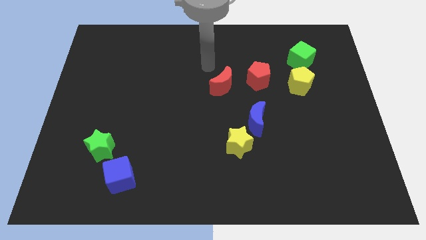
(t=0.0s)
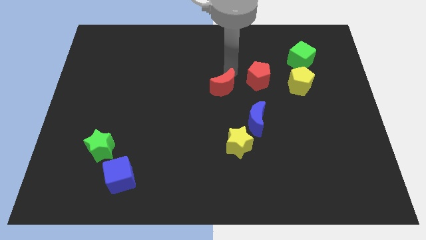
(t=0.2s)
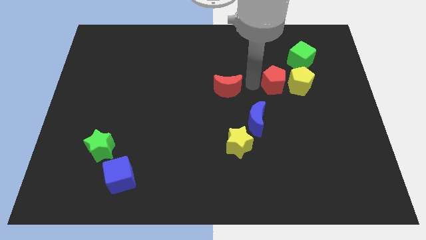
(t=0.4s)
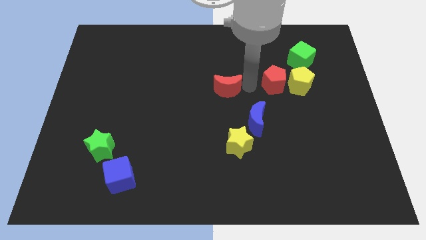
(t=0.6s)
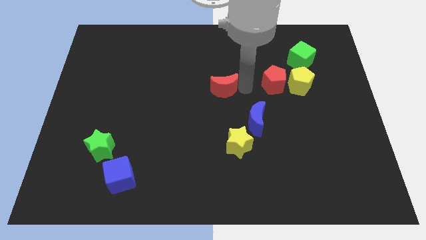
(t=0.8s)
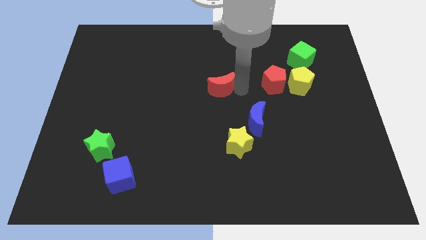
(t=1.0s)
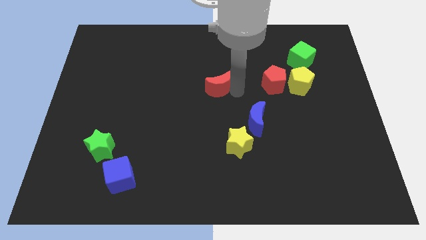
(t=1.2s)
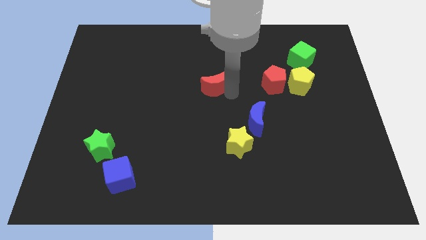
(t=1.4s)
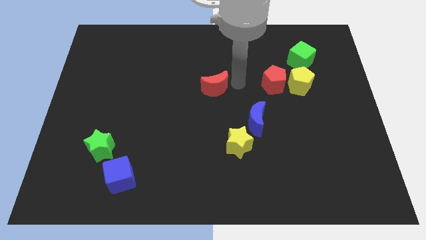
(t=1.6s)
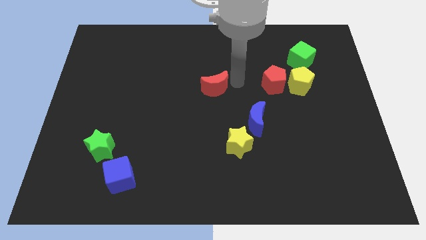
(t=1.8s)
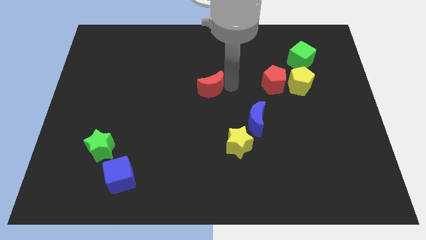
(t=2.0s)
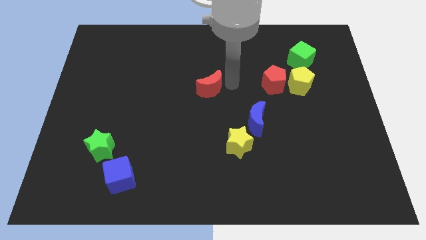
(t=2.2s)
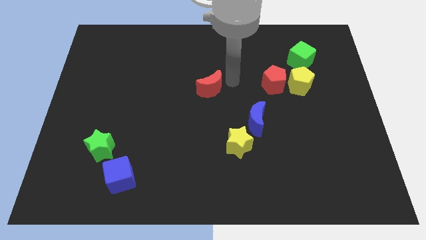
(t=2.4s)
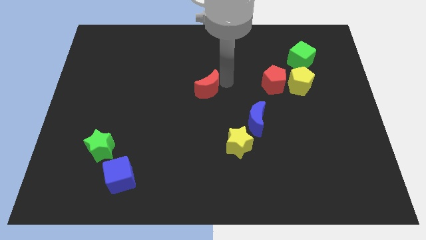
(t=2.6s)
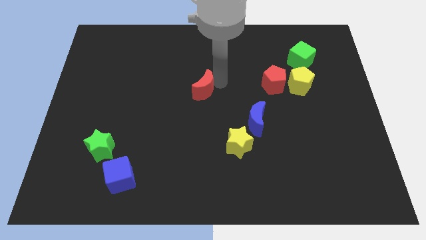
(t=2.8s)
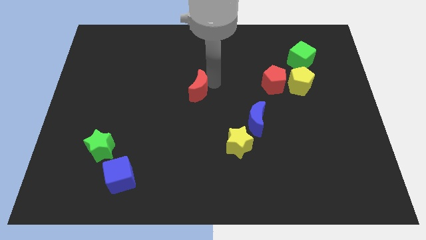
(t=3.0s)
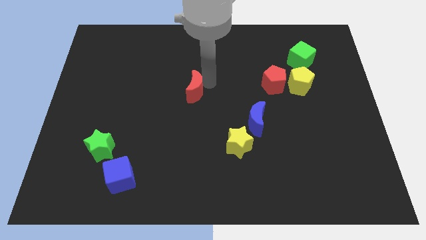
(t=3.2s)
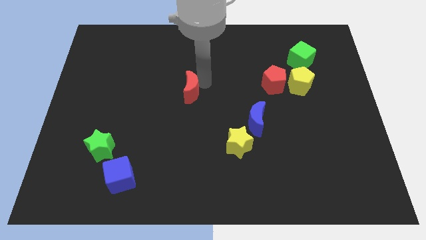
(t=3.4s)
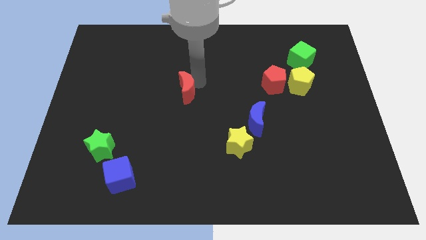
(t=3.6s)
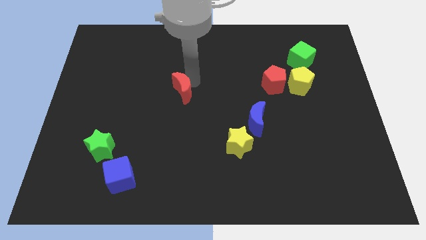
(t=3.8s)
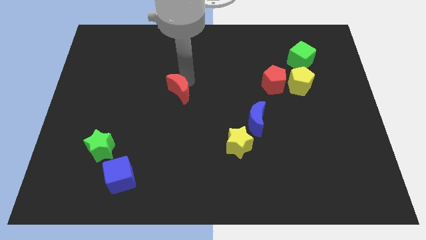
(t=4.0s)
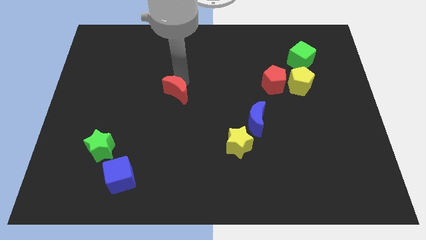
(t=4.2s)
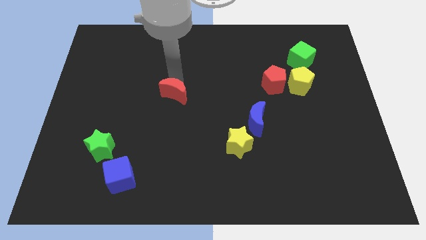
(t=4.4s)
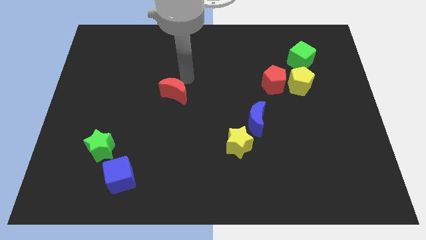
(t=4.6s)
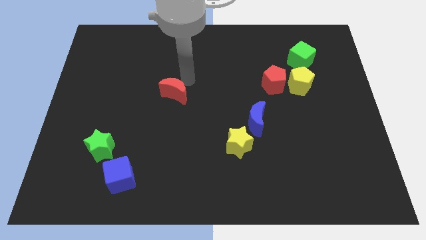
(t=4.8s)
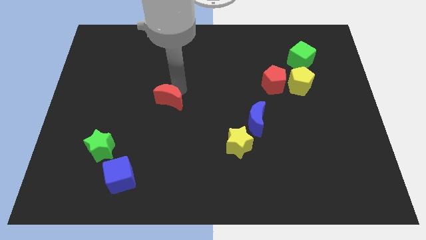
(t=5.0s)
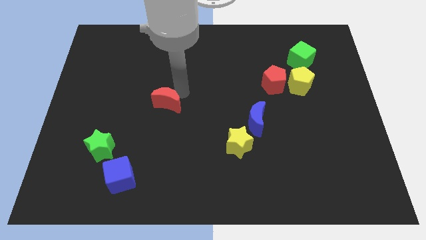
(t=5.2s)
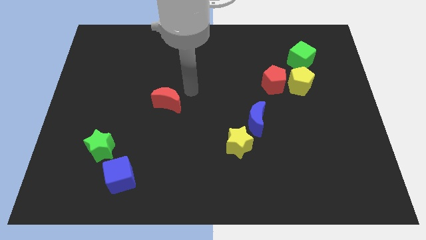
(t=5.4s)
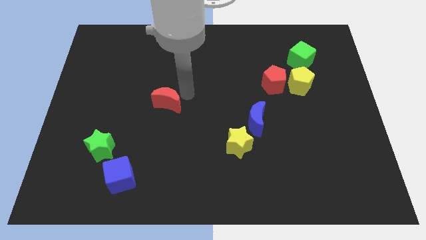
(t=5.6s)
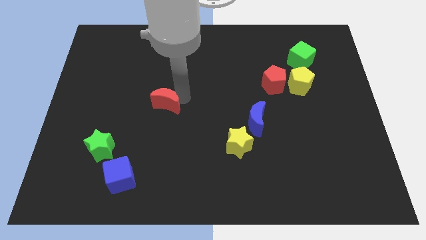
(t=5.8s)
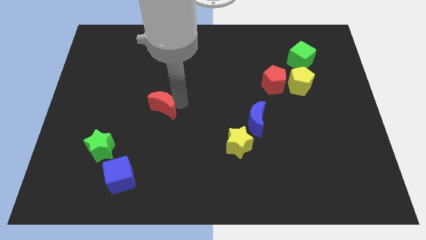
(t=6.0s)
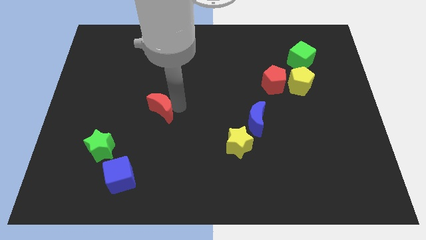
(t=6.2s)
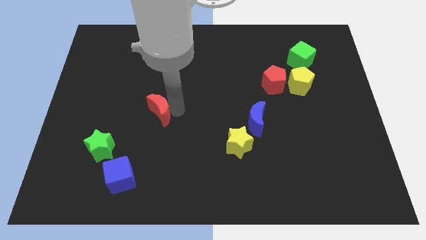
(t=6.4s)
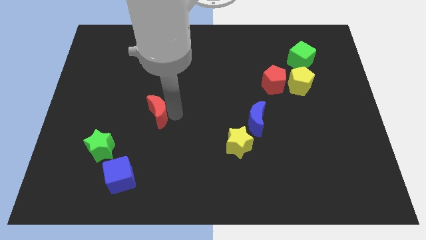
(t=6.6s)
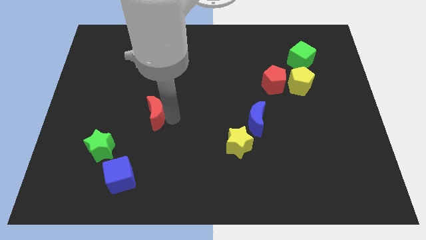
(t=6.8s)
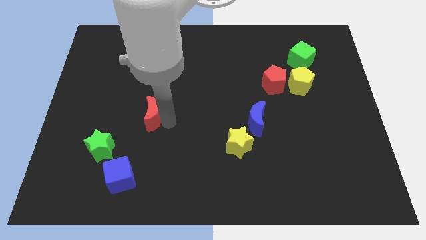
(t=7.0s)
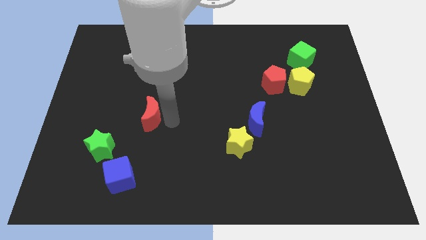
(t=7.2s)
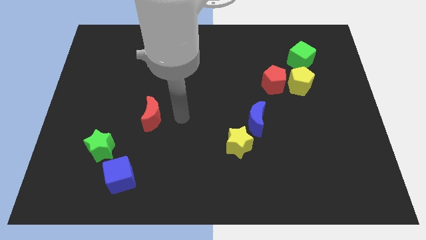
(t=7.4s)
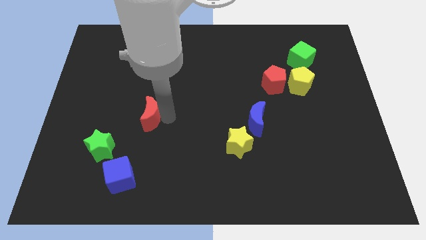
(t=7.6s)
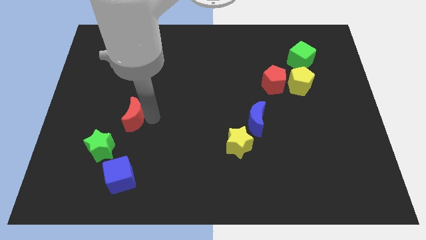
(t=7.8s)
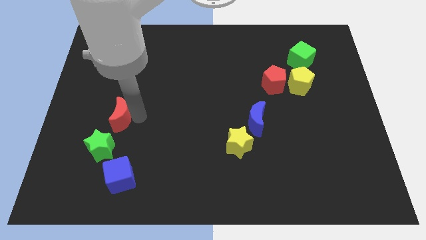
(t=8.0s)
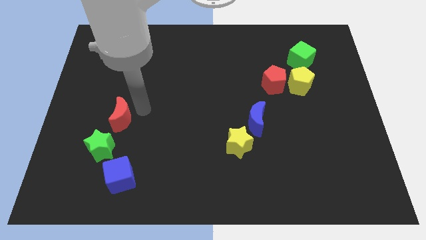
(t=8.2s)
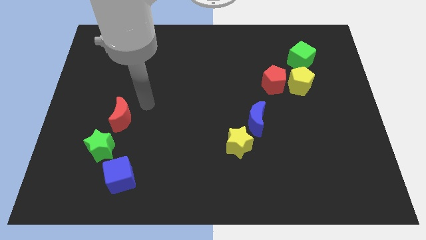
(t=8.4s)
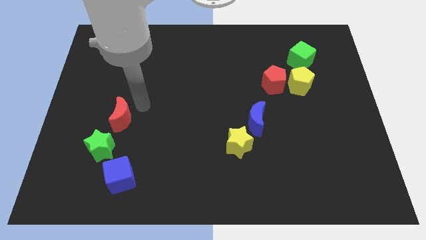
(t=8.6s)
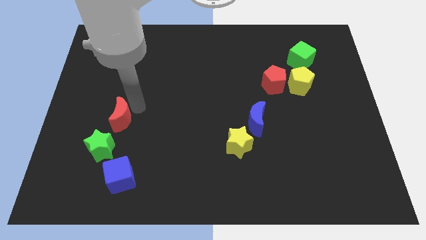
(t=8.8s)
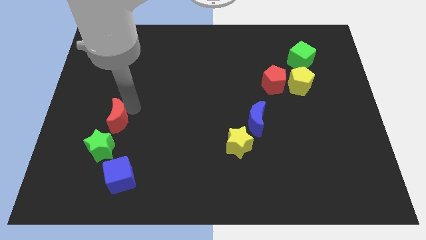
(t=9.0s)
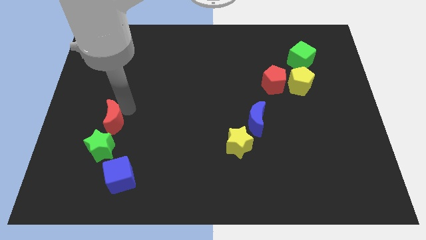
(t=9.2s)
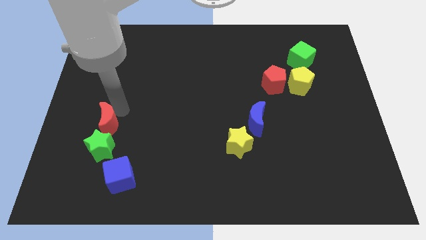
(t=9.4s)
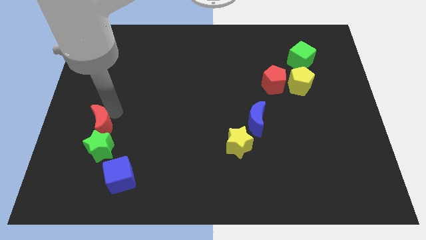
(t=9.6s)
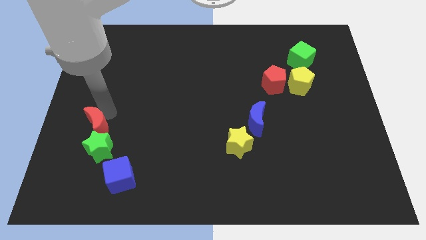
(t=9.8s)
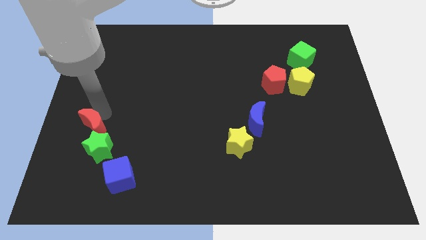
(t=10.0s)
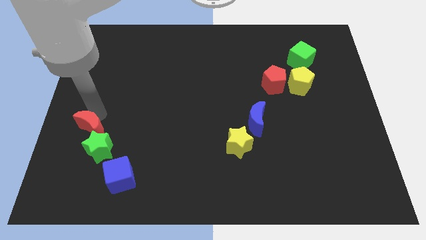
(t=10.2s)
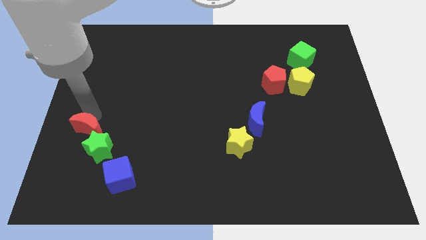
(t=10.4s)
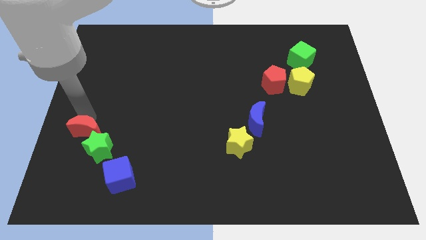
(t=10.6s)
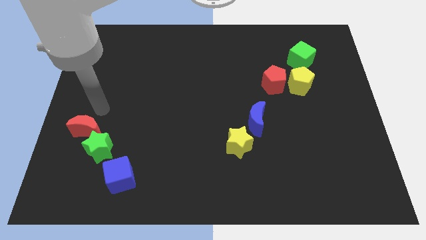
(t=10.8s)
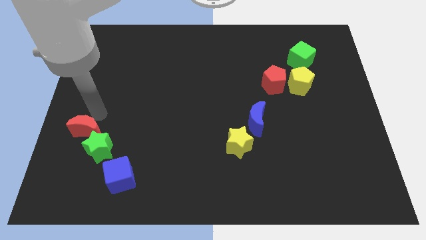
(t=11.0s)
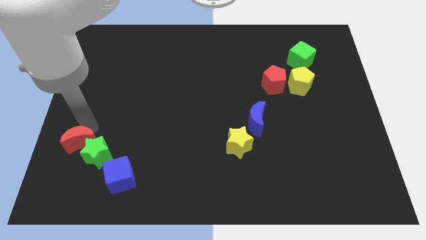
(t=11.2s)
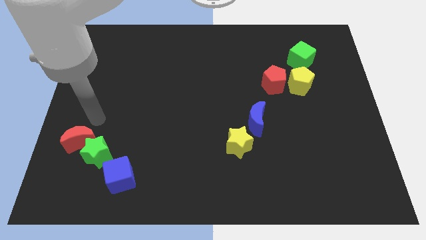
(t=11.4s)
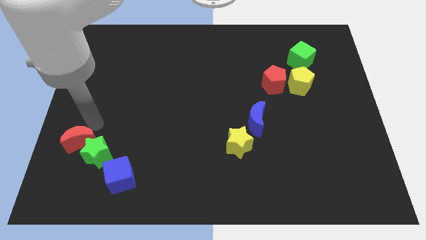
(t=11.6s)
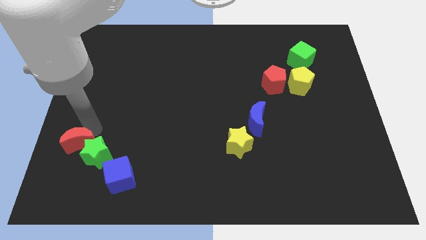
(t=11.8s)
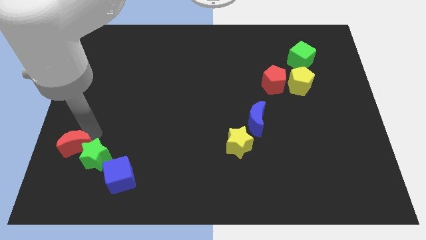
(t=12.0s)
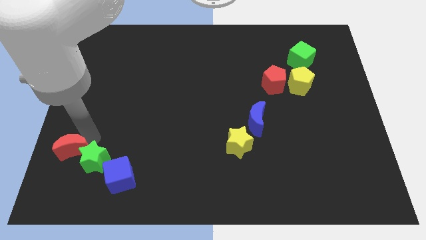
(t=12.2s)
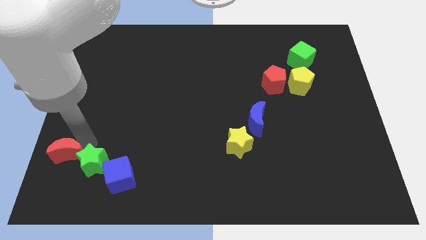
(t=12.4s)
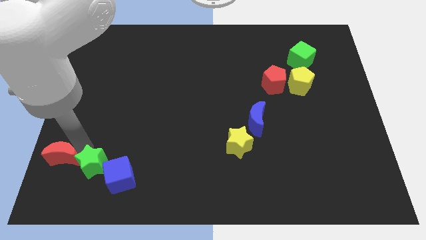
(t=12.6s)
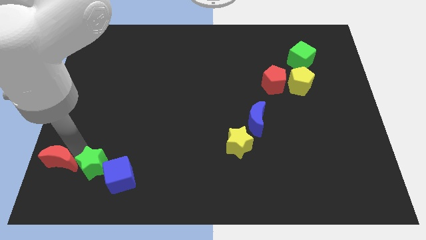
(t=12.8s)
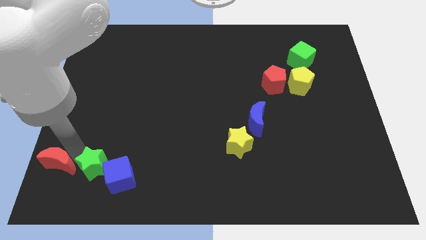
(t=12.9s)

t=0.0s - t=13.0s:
push the red moon to the bottom left corner

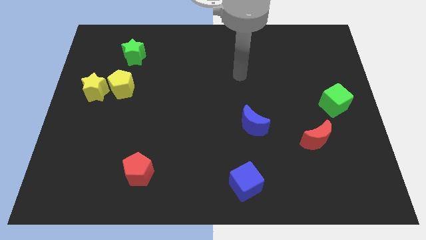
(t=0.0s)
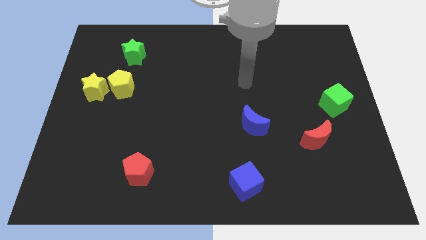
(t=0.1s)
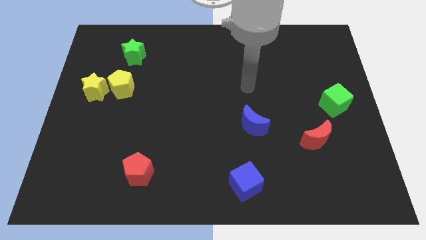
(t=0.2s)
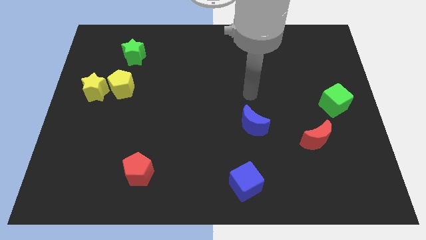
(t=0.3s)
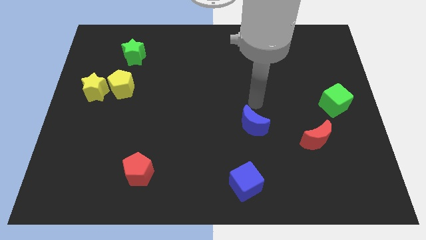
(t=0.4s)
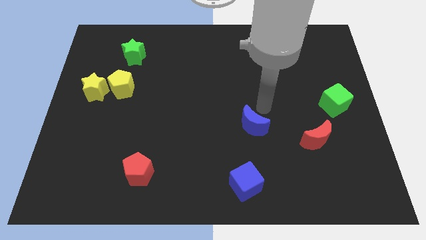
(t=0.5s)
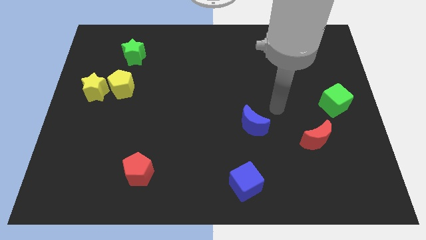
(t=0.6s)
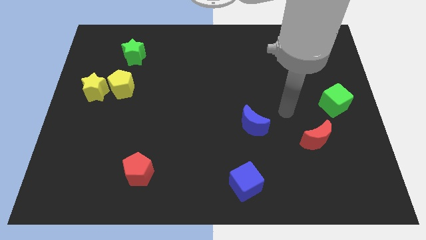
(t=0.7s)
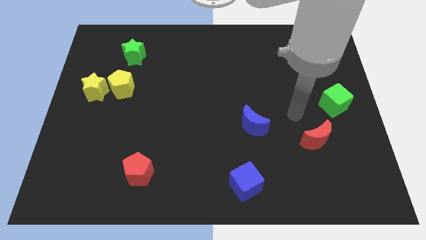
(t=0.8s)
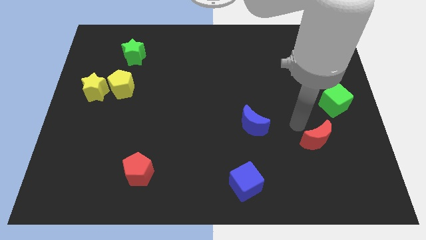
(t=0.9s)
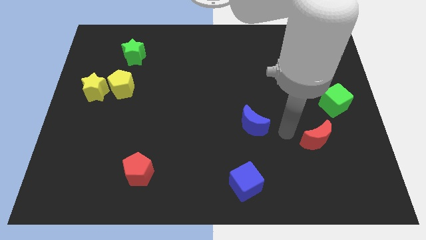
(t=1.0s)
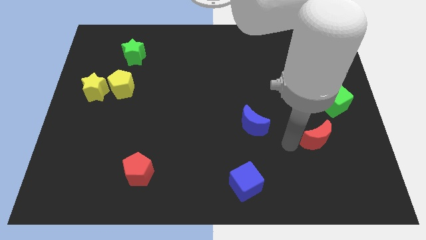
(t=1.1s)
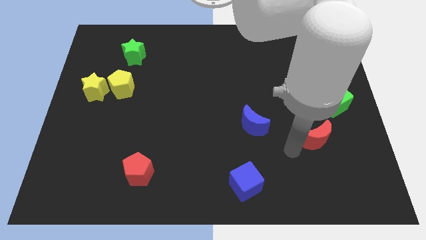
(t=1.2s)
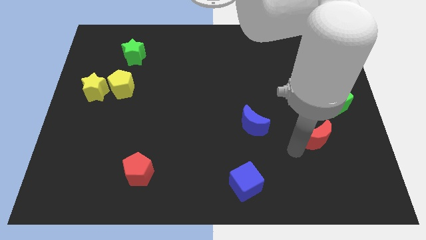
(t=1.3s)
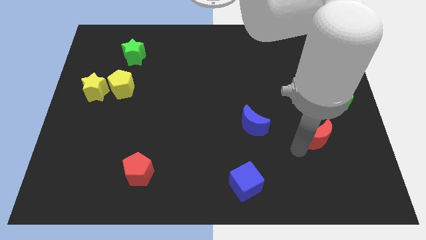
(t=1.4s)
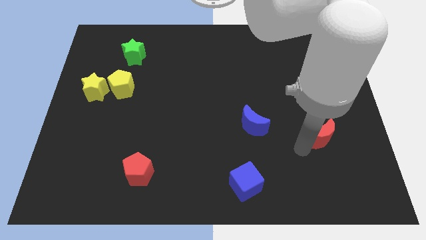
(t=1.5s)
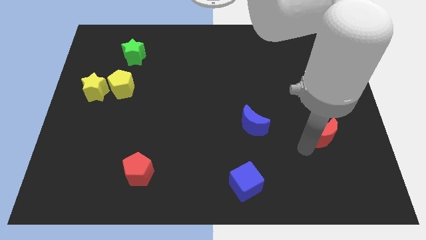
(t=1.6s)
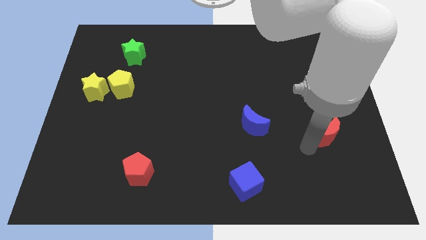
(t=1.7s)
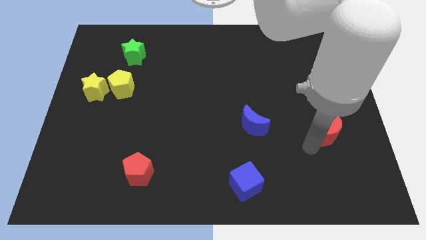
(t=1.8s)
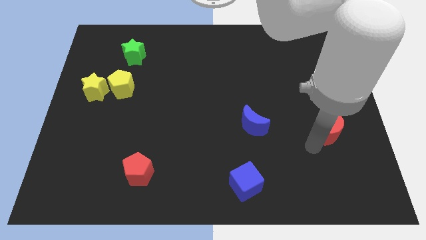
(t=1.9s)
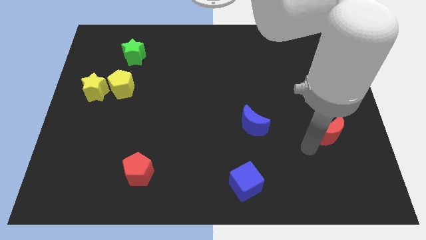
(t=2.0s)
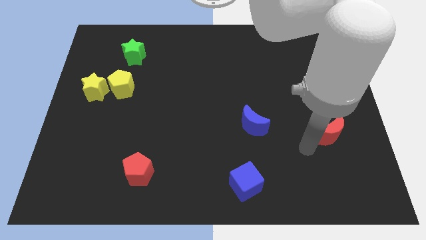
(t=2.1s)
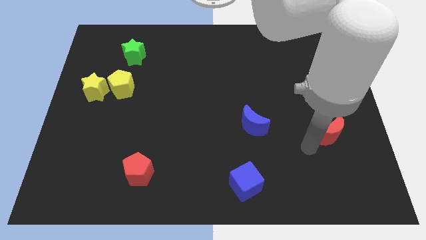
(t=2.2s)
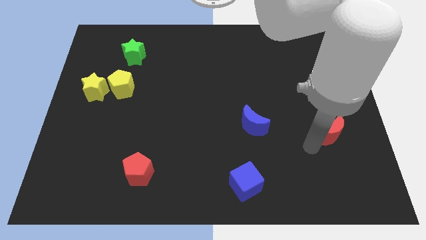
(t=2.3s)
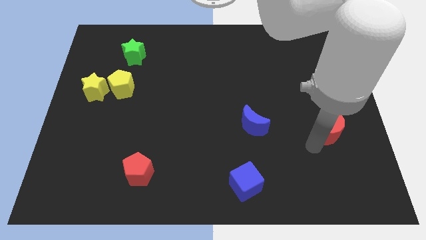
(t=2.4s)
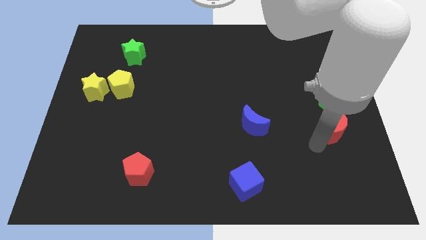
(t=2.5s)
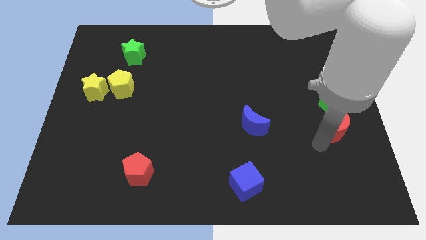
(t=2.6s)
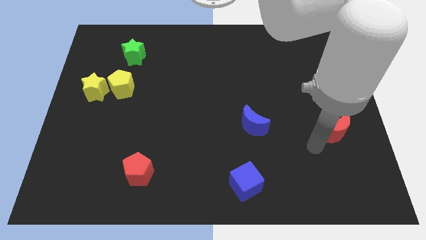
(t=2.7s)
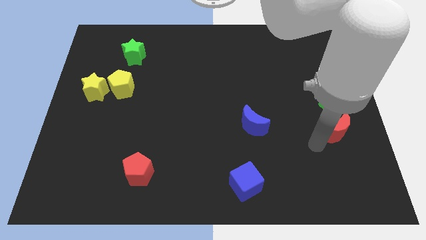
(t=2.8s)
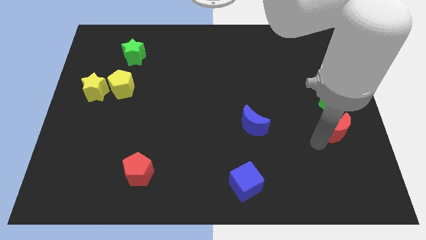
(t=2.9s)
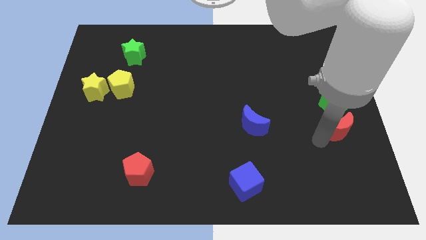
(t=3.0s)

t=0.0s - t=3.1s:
slide the red moon to the center right
